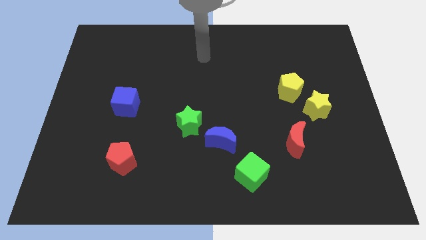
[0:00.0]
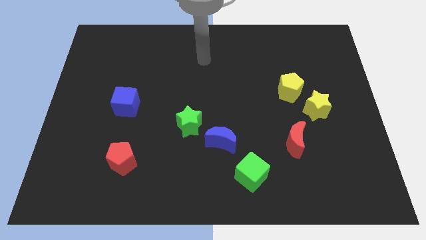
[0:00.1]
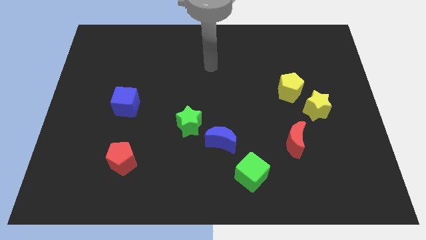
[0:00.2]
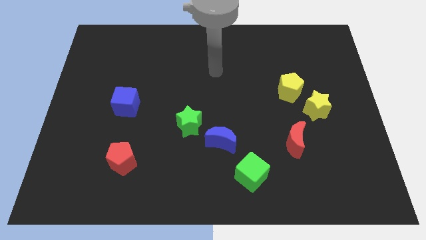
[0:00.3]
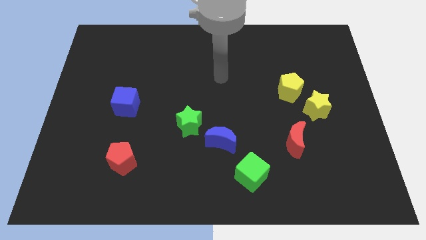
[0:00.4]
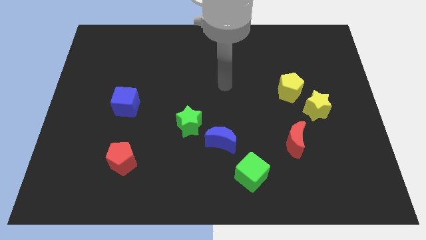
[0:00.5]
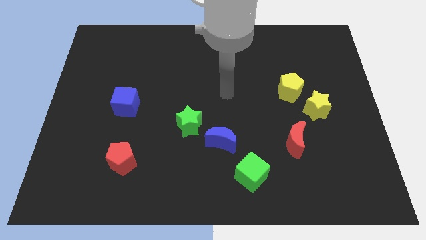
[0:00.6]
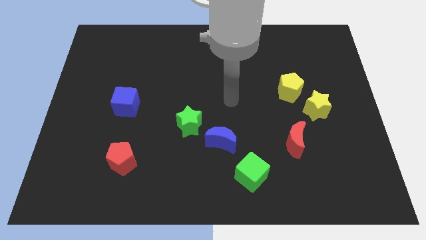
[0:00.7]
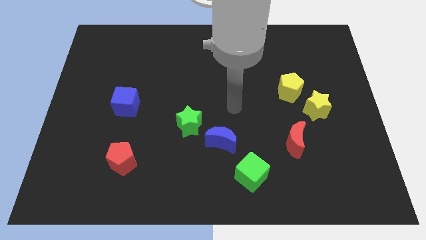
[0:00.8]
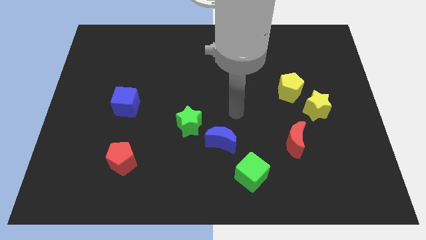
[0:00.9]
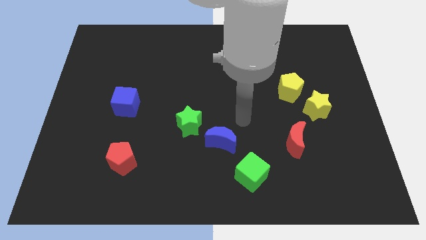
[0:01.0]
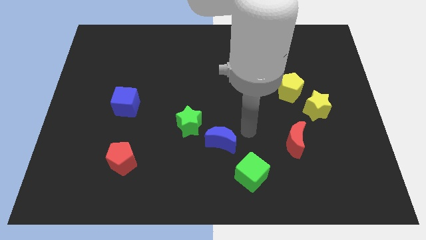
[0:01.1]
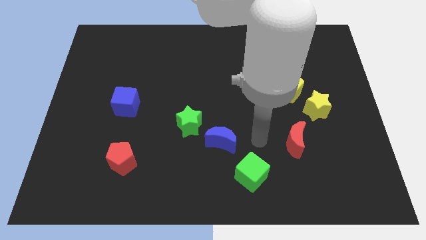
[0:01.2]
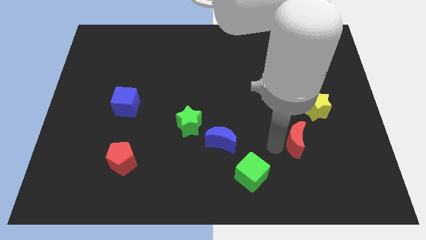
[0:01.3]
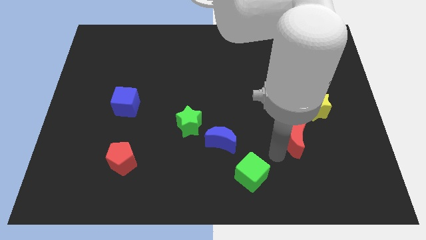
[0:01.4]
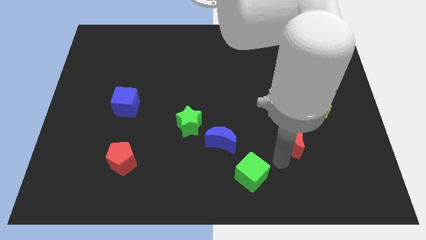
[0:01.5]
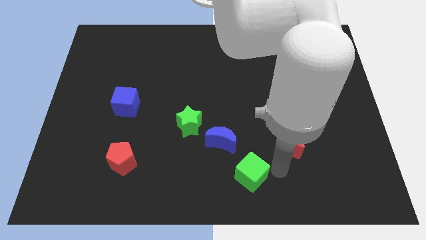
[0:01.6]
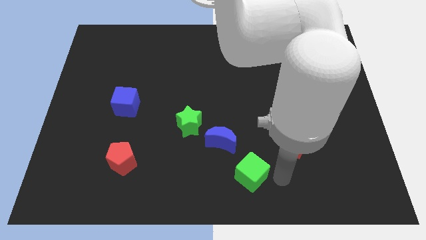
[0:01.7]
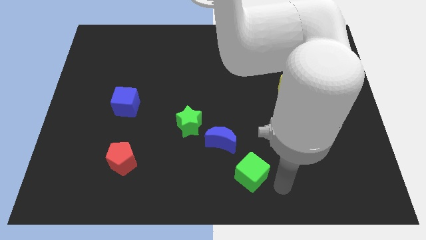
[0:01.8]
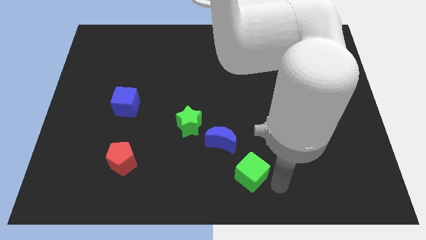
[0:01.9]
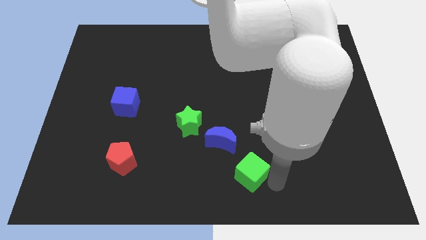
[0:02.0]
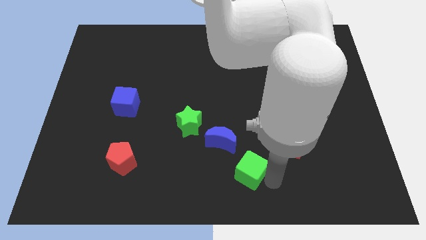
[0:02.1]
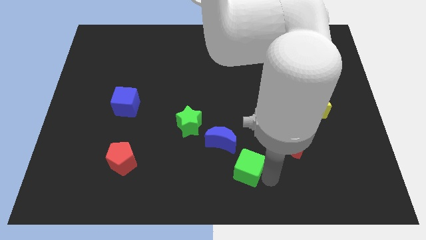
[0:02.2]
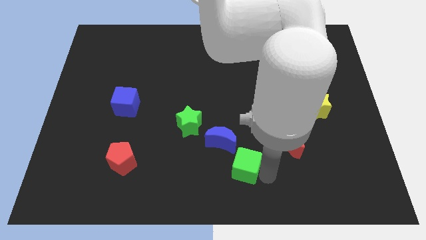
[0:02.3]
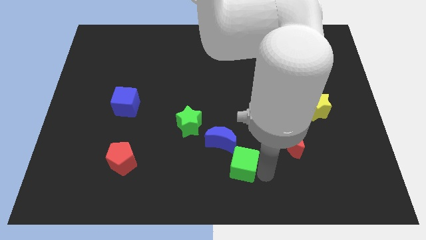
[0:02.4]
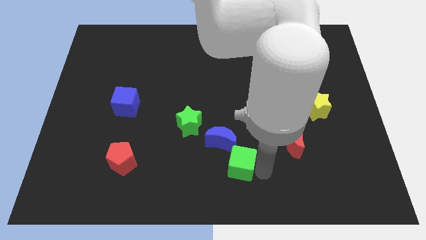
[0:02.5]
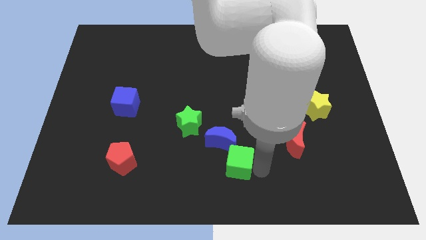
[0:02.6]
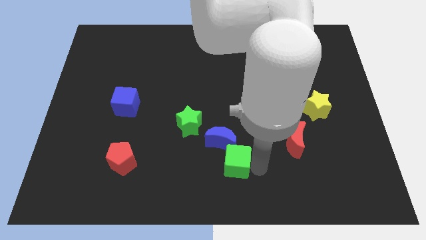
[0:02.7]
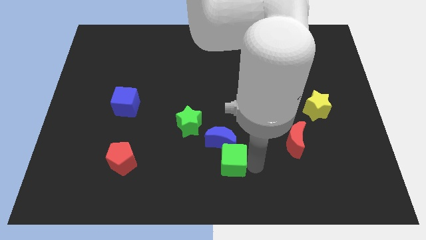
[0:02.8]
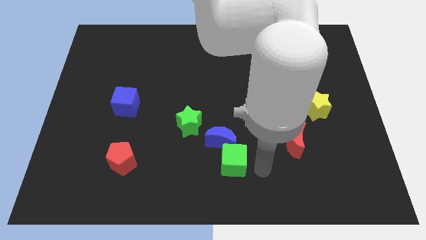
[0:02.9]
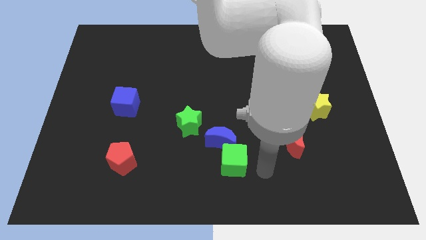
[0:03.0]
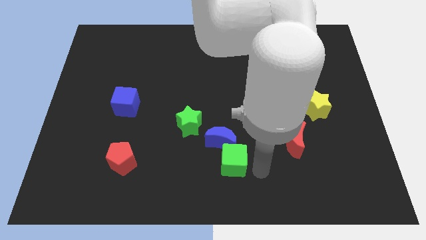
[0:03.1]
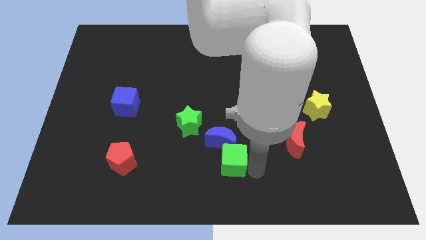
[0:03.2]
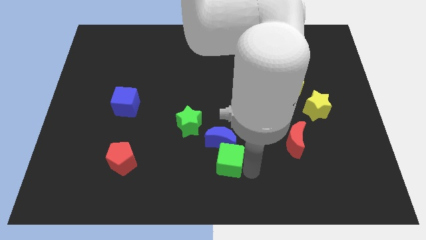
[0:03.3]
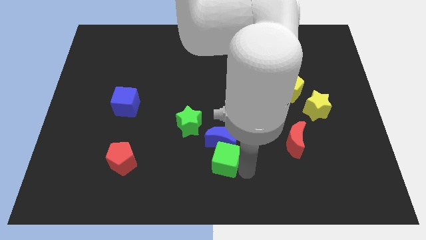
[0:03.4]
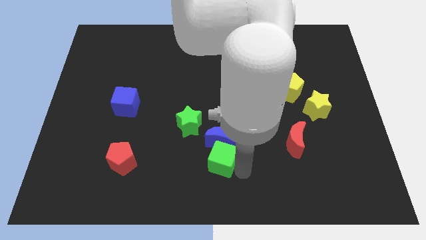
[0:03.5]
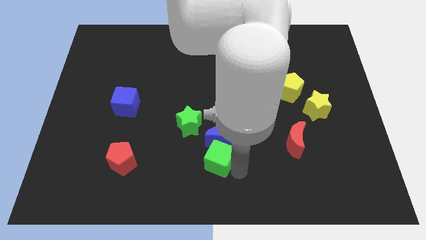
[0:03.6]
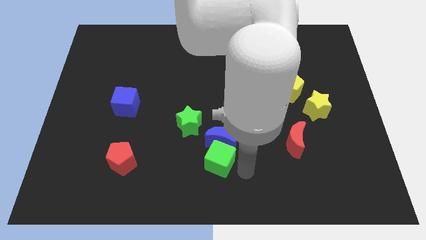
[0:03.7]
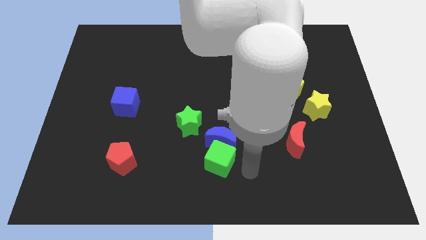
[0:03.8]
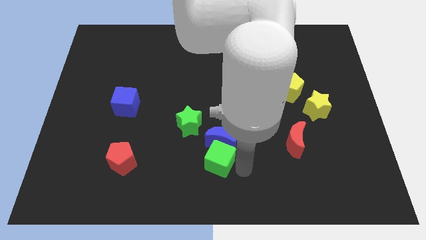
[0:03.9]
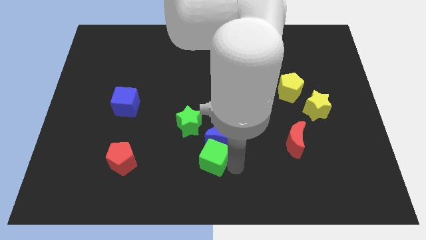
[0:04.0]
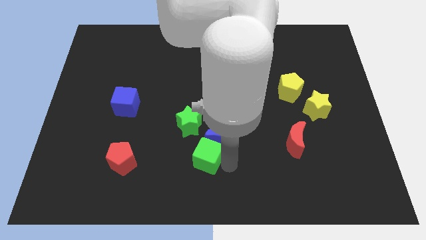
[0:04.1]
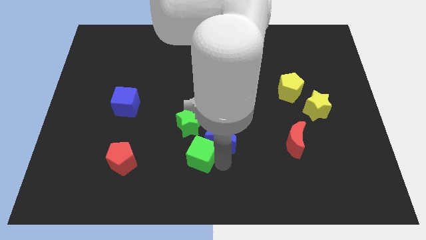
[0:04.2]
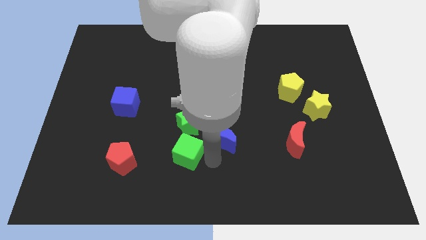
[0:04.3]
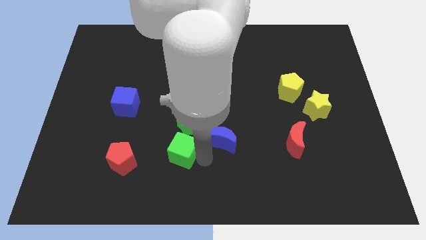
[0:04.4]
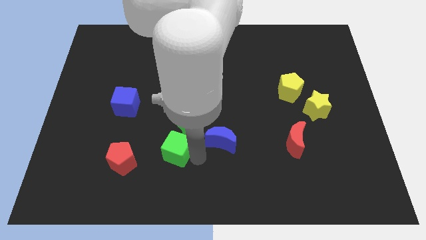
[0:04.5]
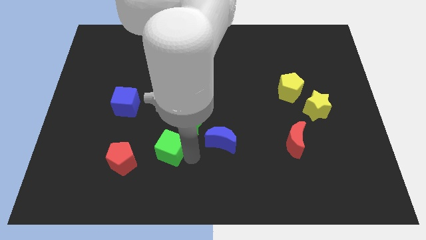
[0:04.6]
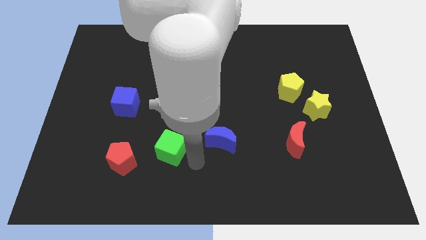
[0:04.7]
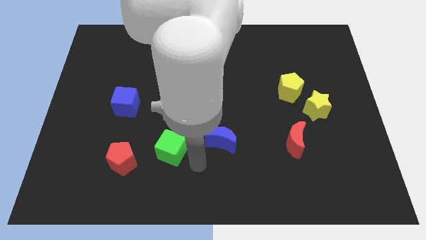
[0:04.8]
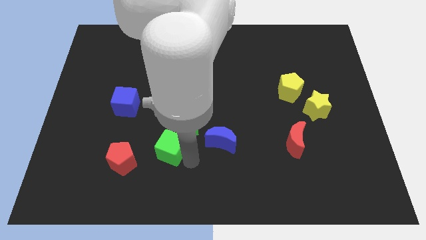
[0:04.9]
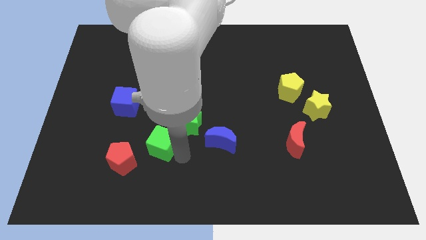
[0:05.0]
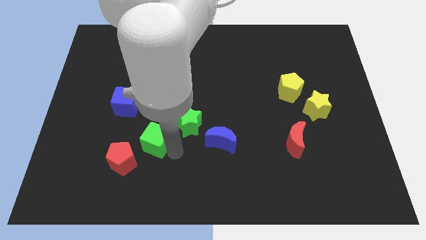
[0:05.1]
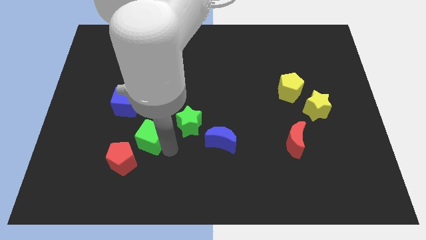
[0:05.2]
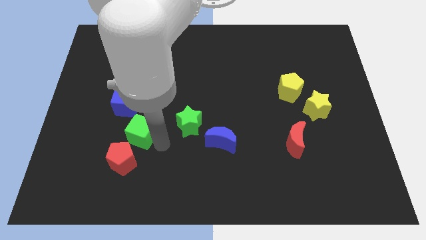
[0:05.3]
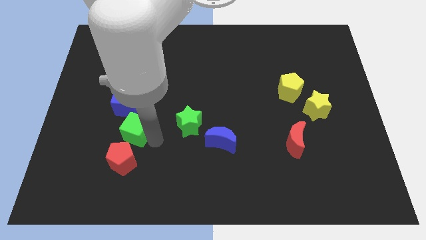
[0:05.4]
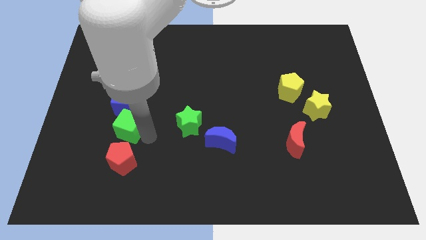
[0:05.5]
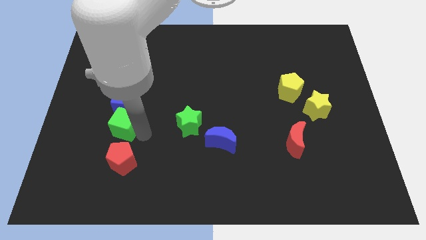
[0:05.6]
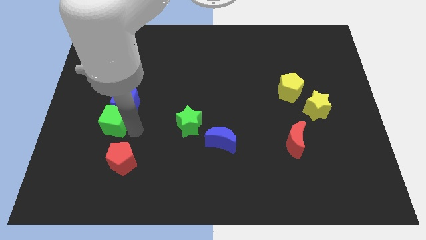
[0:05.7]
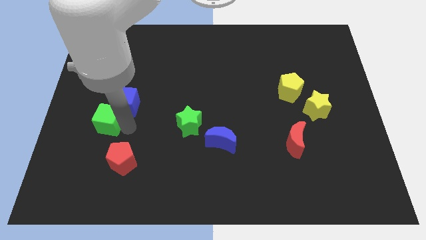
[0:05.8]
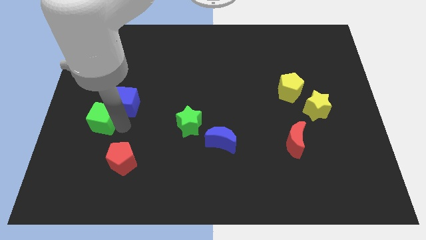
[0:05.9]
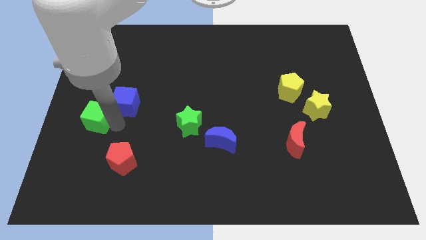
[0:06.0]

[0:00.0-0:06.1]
push the green cube to the center left
